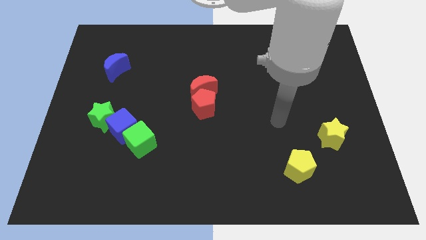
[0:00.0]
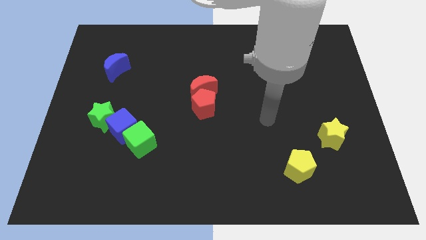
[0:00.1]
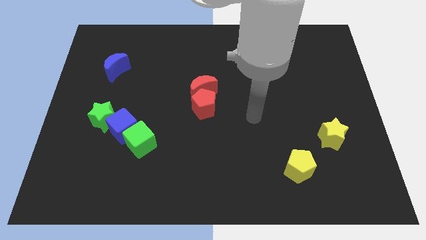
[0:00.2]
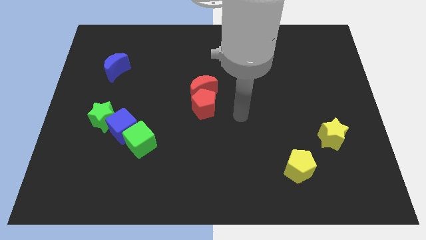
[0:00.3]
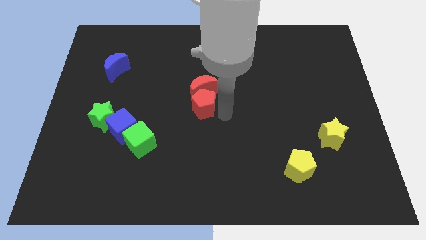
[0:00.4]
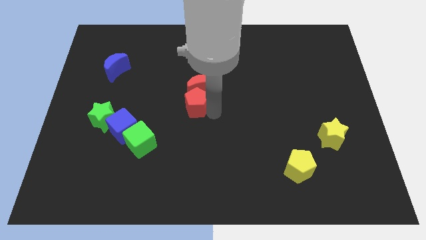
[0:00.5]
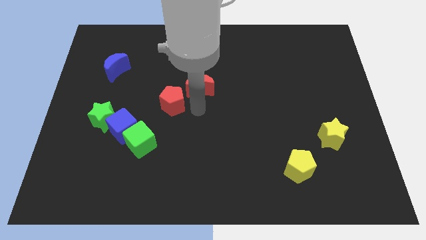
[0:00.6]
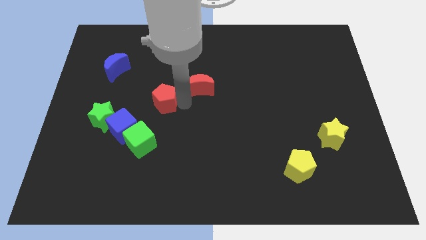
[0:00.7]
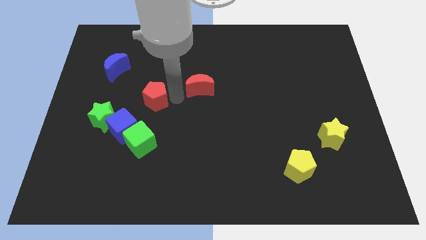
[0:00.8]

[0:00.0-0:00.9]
separate the red moon from the red pentagon

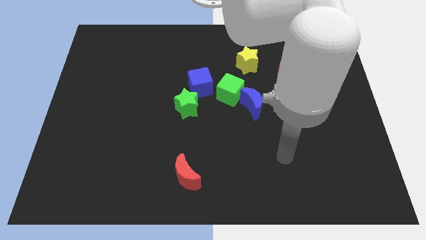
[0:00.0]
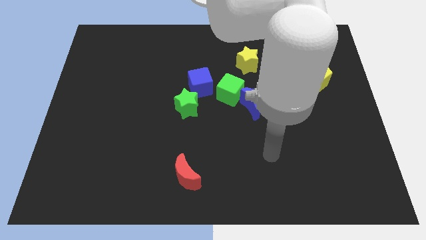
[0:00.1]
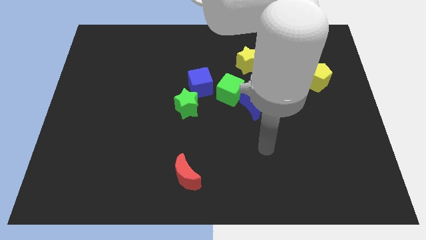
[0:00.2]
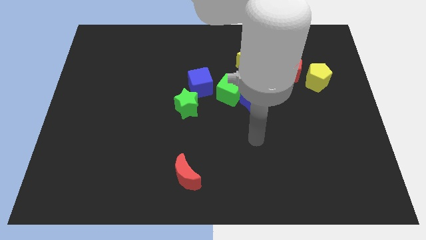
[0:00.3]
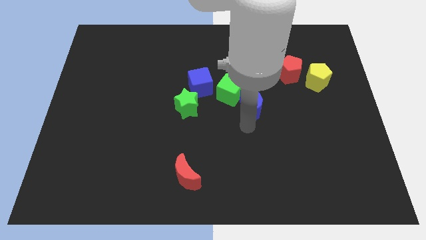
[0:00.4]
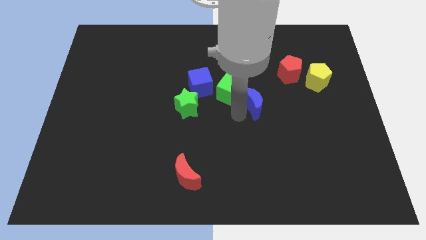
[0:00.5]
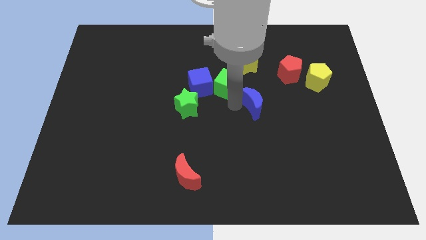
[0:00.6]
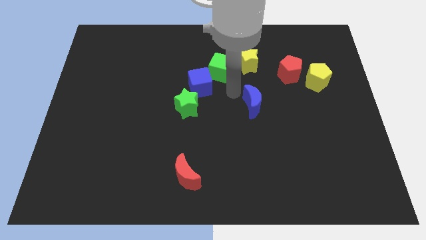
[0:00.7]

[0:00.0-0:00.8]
separate the blue moon from the green cube

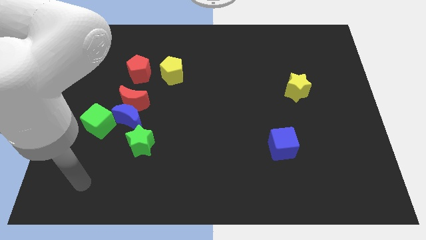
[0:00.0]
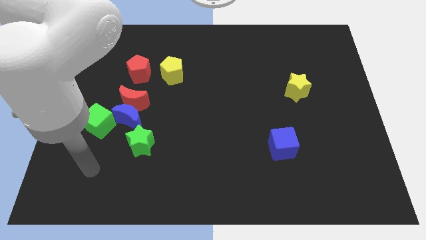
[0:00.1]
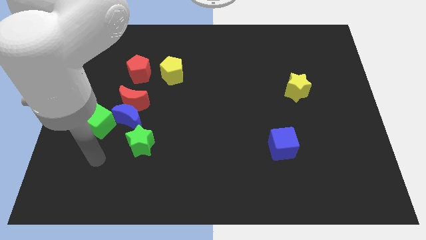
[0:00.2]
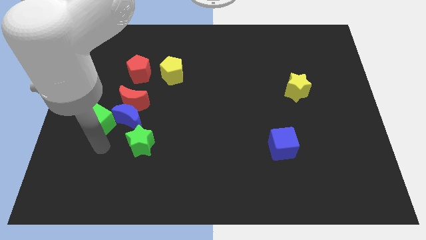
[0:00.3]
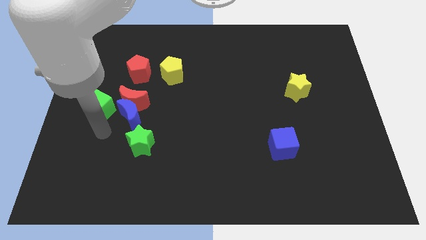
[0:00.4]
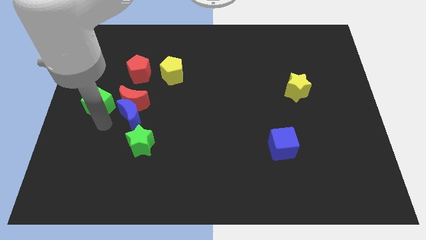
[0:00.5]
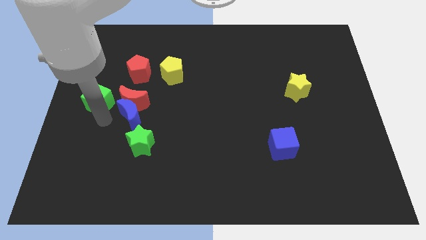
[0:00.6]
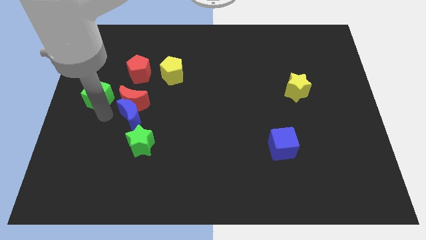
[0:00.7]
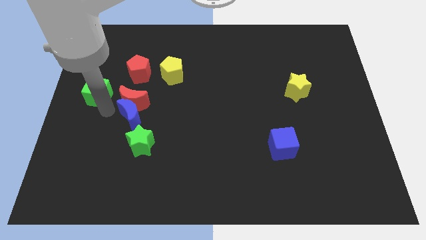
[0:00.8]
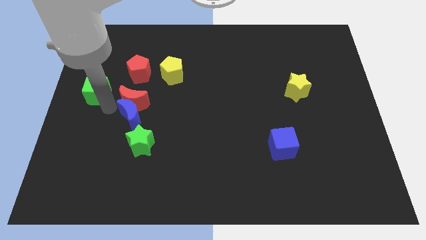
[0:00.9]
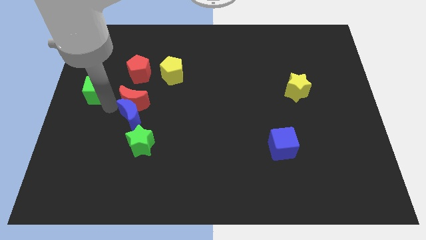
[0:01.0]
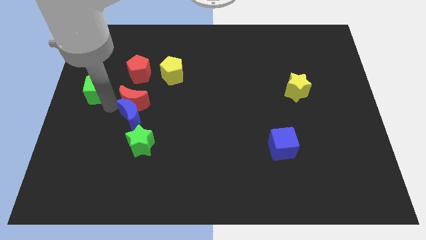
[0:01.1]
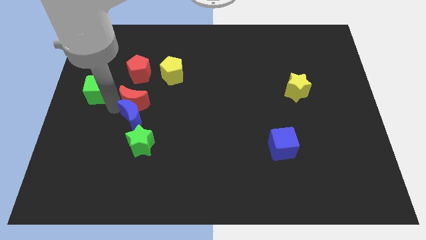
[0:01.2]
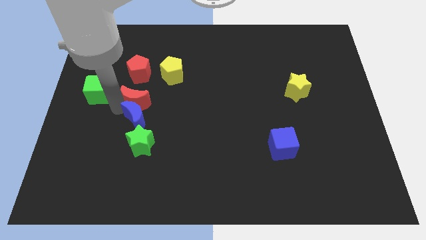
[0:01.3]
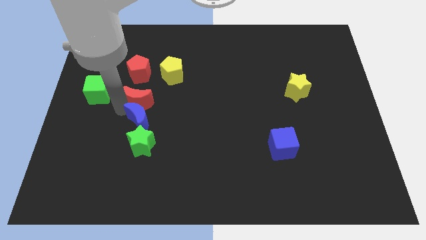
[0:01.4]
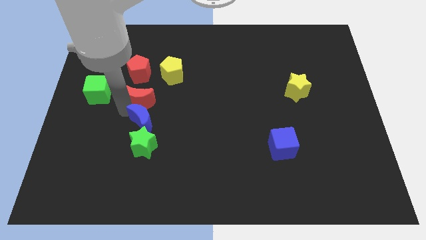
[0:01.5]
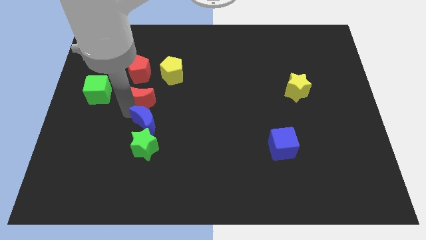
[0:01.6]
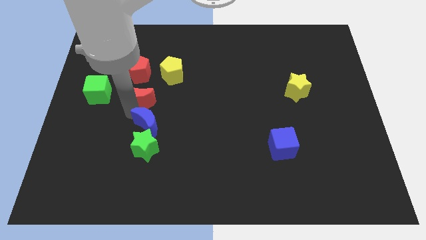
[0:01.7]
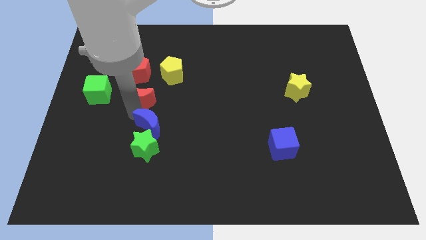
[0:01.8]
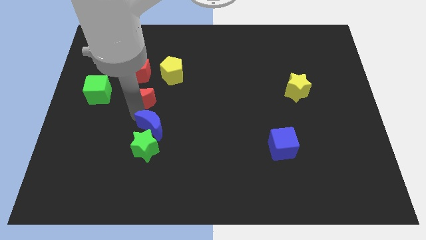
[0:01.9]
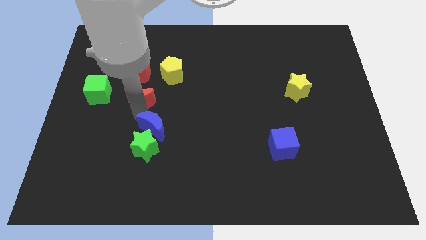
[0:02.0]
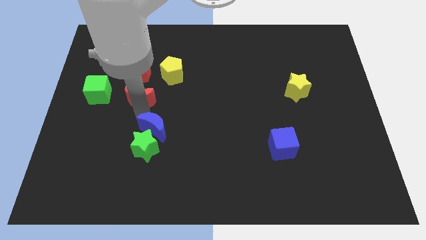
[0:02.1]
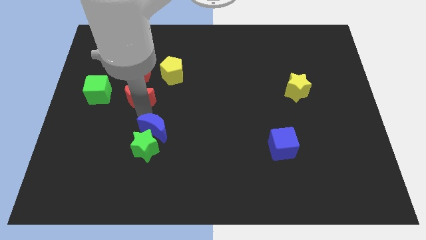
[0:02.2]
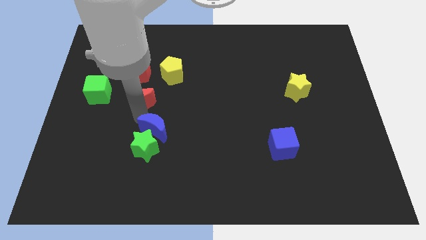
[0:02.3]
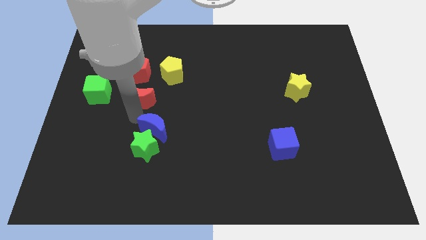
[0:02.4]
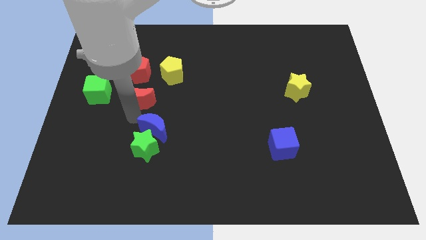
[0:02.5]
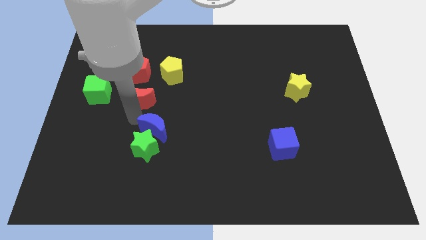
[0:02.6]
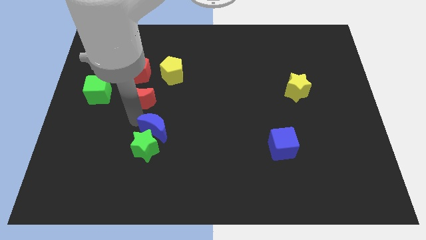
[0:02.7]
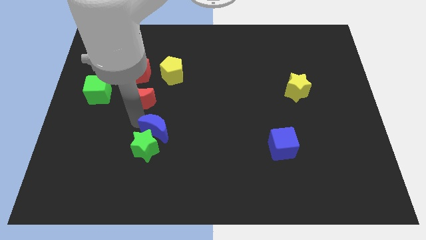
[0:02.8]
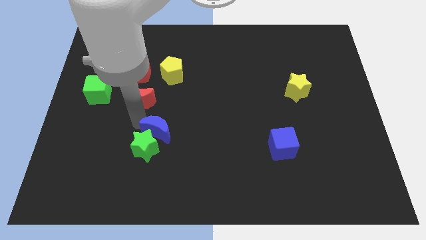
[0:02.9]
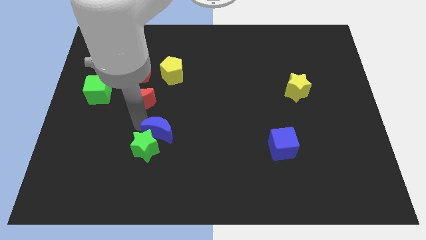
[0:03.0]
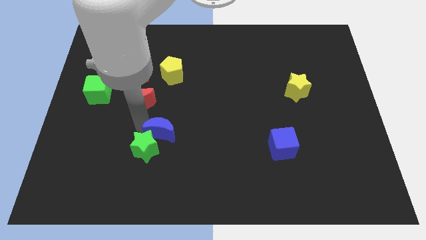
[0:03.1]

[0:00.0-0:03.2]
pull the blue moon apart from the group

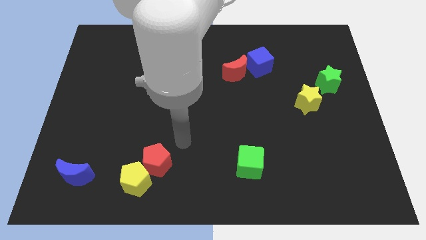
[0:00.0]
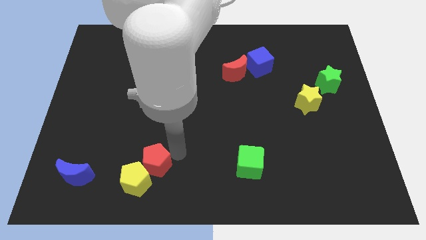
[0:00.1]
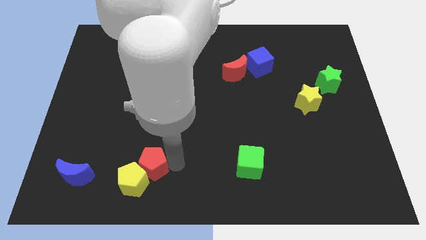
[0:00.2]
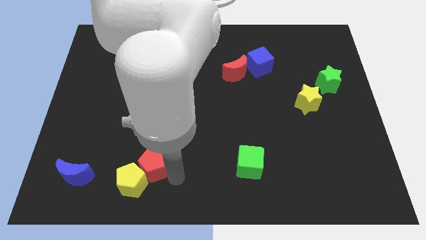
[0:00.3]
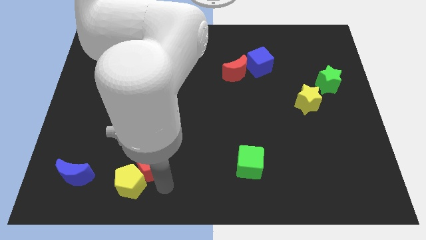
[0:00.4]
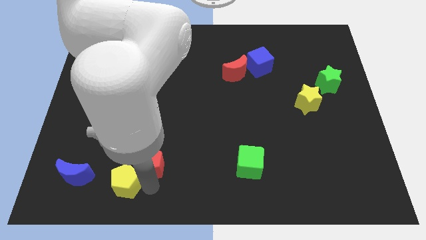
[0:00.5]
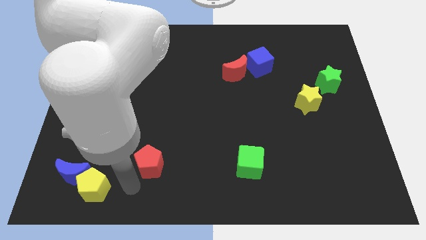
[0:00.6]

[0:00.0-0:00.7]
move the red pentagon away from the yellow pentagon

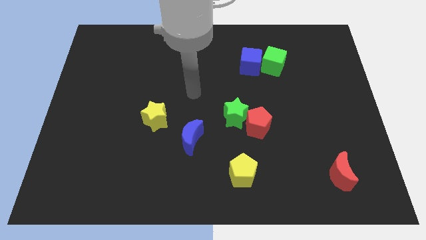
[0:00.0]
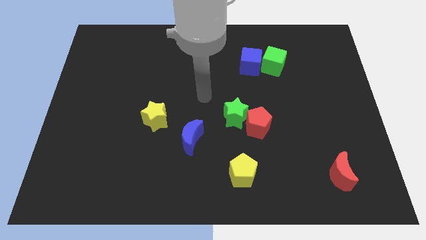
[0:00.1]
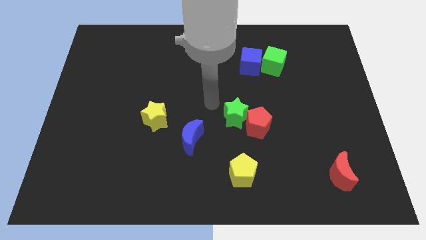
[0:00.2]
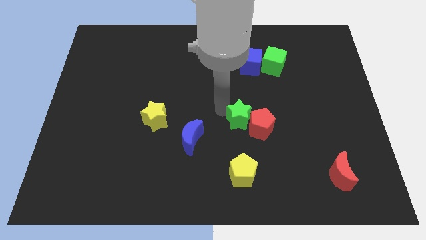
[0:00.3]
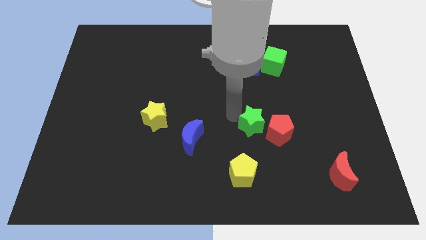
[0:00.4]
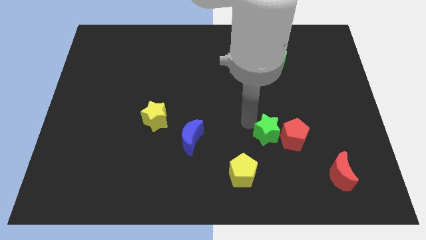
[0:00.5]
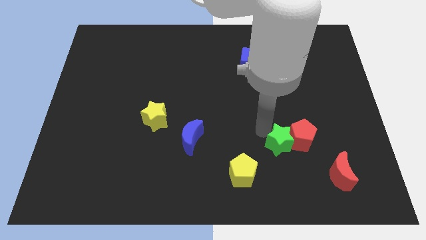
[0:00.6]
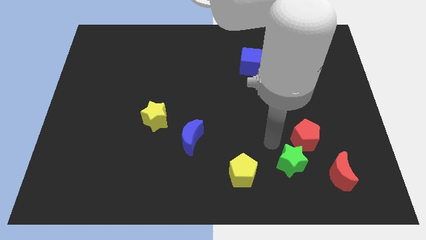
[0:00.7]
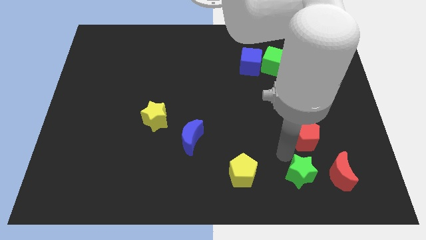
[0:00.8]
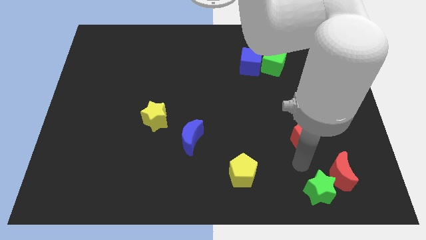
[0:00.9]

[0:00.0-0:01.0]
separate the red pentagon from the green star

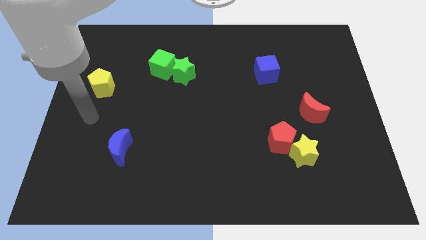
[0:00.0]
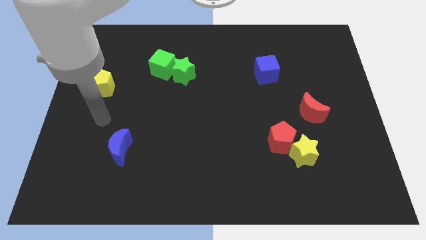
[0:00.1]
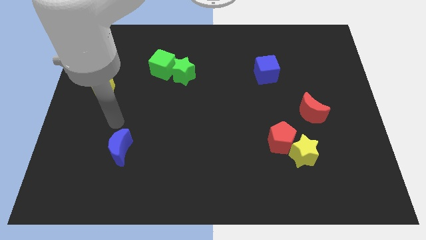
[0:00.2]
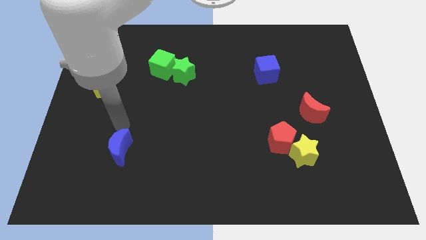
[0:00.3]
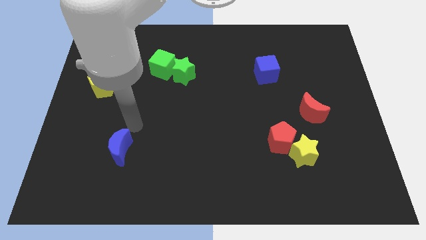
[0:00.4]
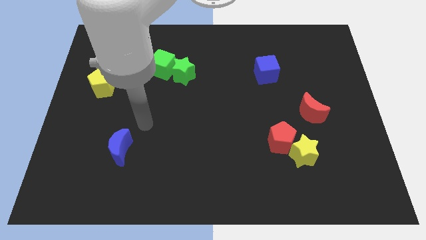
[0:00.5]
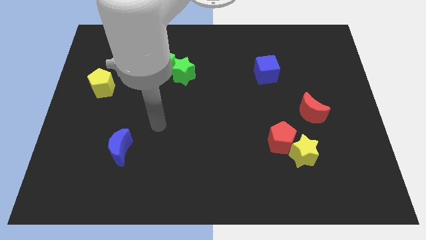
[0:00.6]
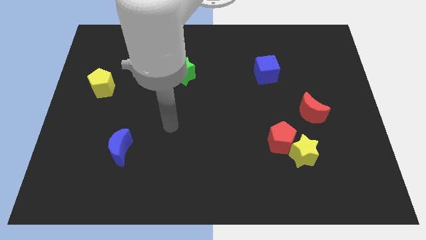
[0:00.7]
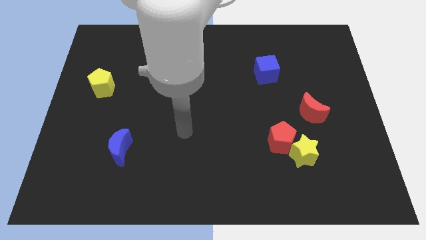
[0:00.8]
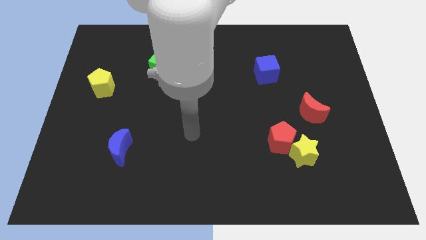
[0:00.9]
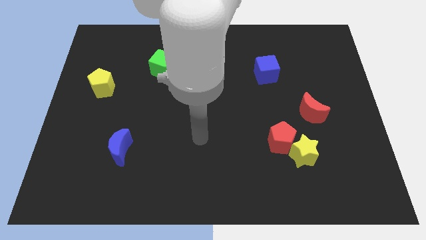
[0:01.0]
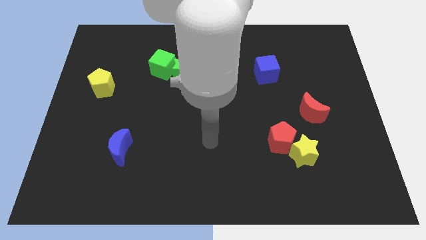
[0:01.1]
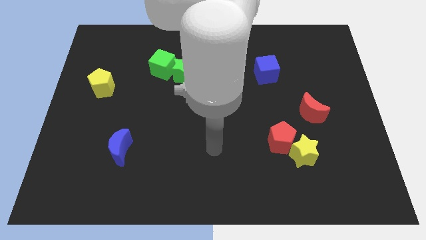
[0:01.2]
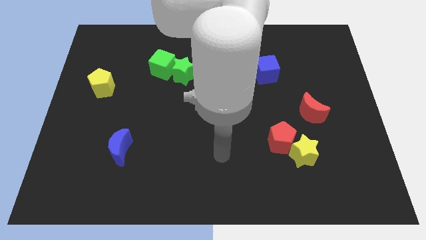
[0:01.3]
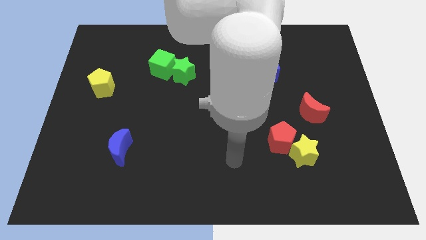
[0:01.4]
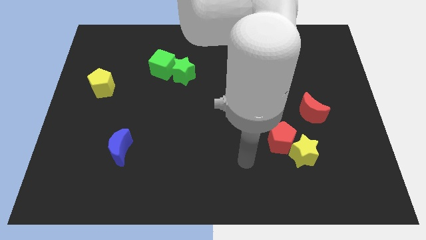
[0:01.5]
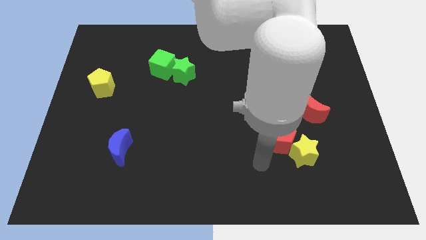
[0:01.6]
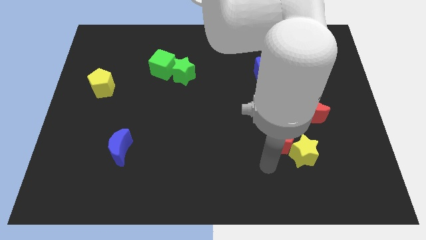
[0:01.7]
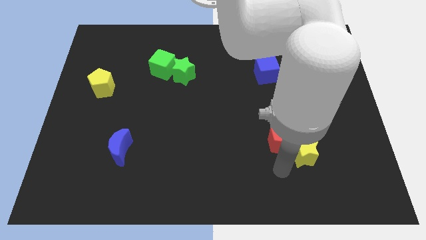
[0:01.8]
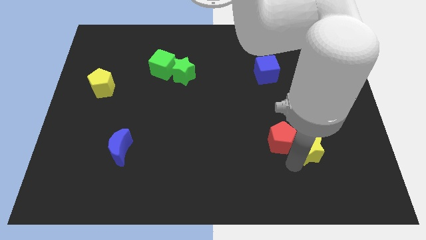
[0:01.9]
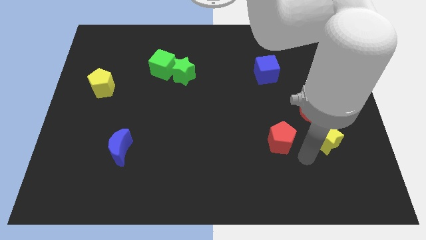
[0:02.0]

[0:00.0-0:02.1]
separate the red pentagon from the yellow star

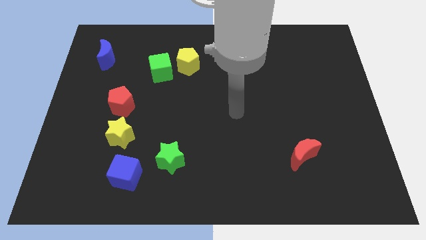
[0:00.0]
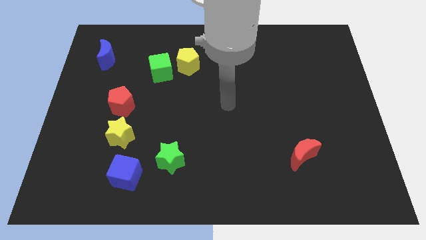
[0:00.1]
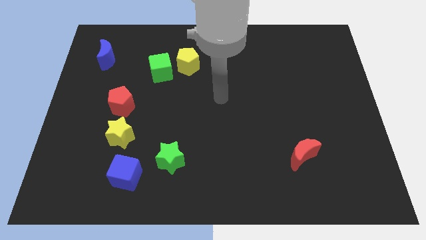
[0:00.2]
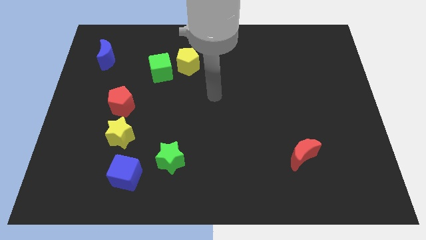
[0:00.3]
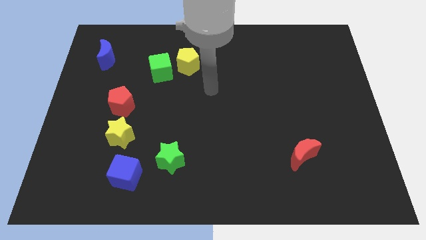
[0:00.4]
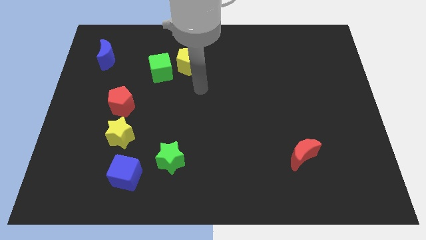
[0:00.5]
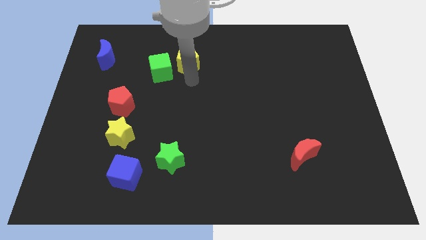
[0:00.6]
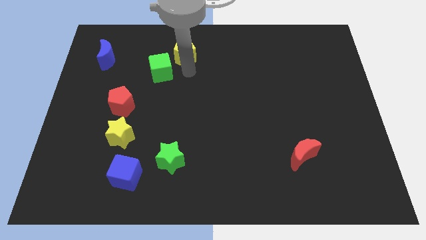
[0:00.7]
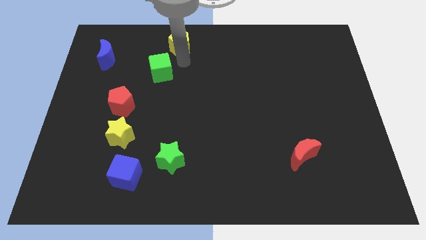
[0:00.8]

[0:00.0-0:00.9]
separate the green cube from the yellow pentagon
